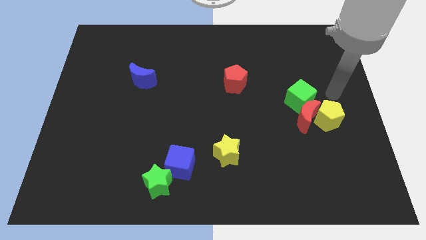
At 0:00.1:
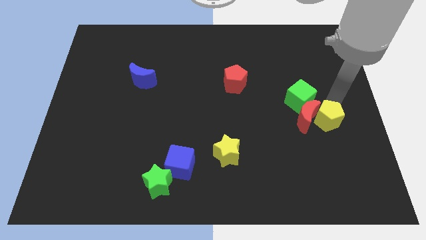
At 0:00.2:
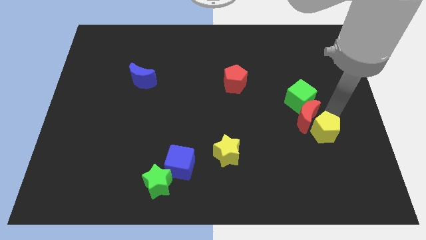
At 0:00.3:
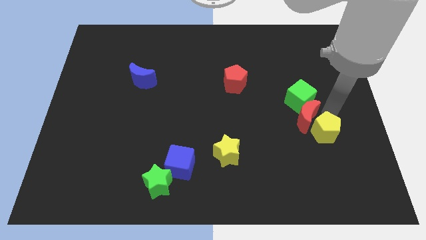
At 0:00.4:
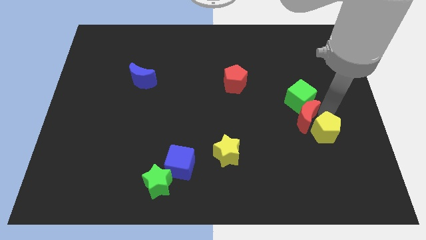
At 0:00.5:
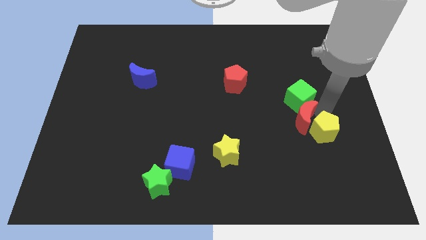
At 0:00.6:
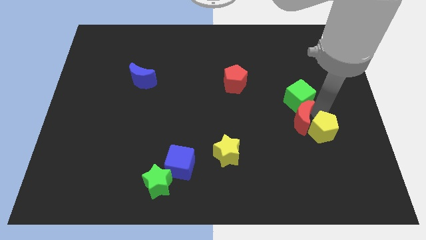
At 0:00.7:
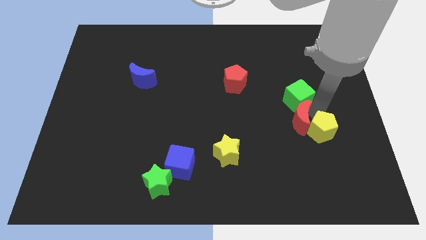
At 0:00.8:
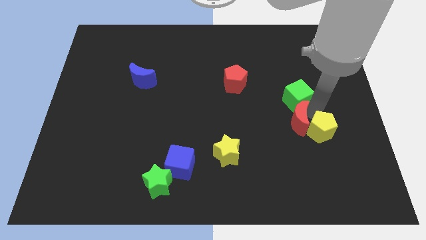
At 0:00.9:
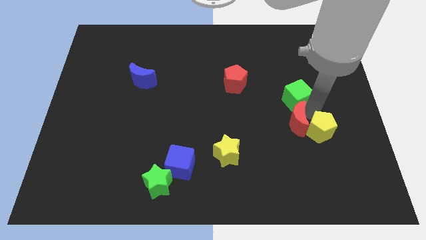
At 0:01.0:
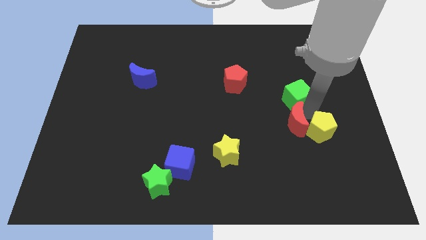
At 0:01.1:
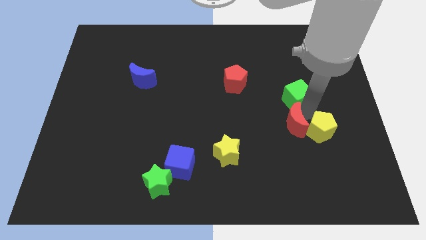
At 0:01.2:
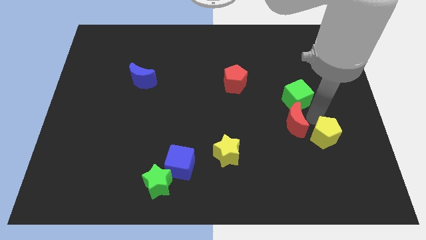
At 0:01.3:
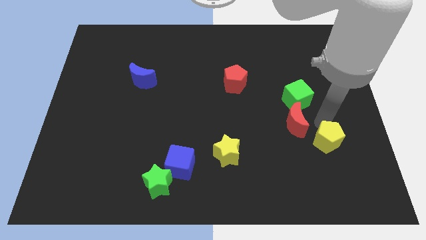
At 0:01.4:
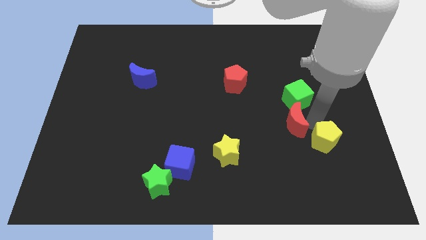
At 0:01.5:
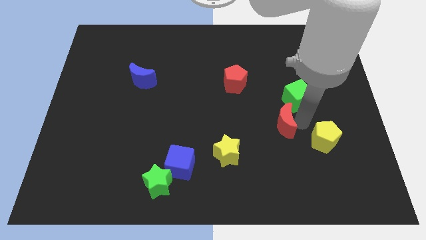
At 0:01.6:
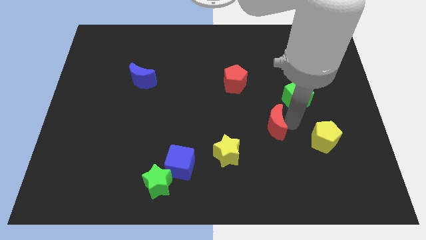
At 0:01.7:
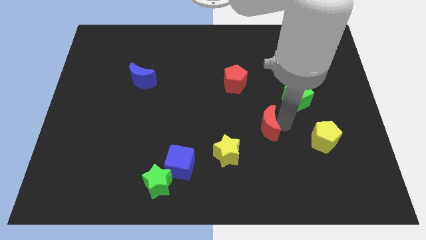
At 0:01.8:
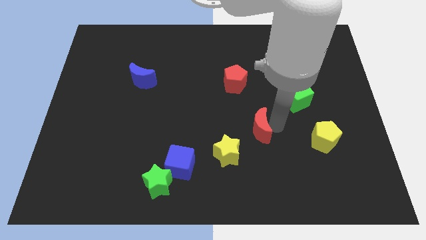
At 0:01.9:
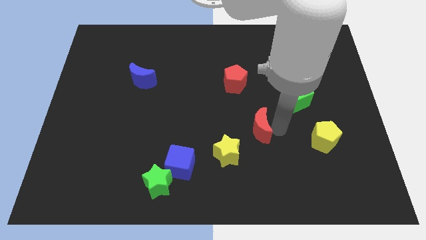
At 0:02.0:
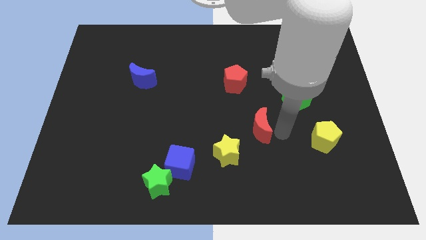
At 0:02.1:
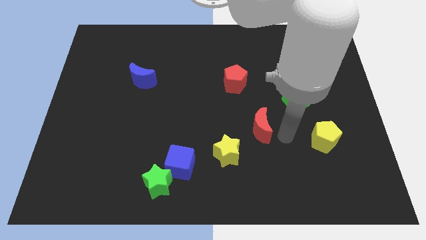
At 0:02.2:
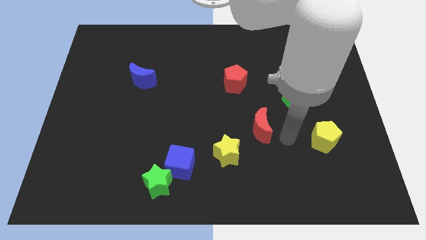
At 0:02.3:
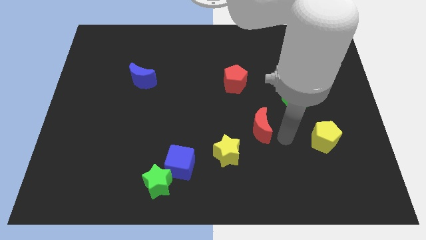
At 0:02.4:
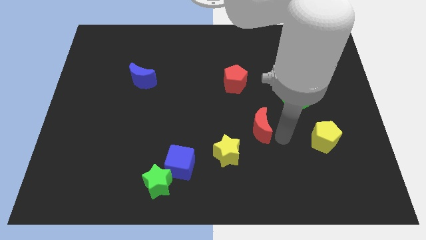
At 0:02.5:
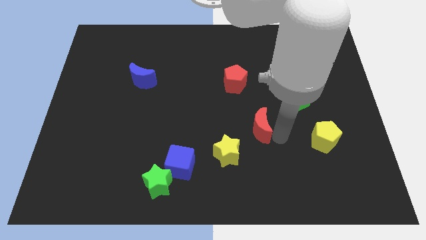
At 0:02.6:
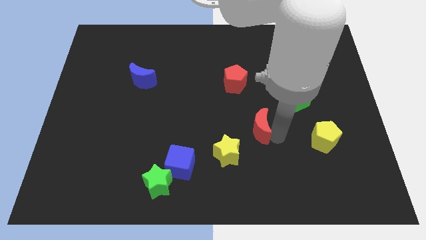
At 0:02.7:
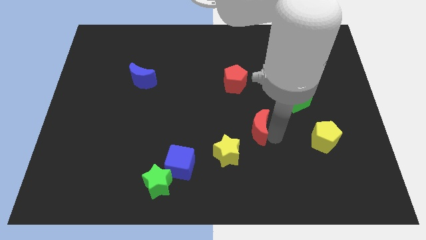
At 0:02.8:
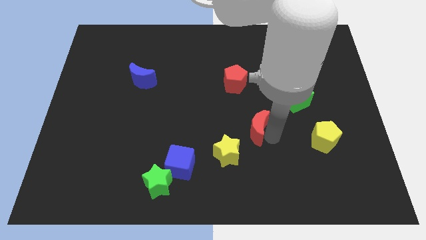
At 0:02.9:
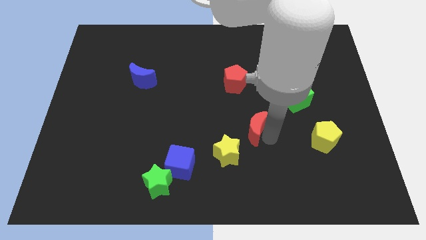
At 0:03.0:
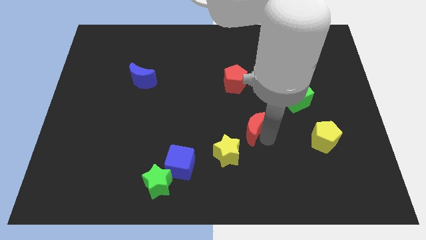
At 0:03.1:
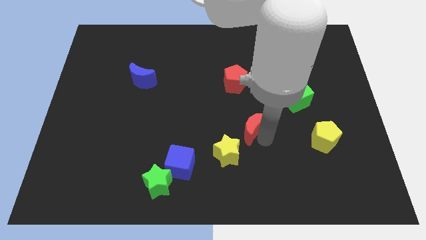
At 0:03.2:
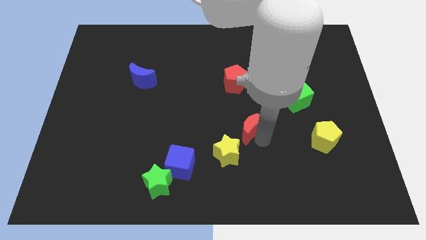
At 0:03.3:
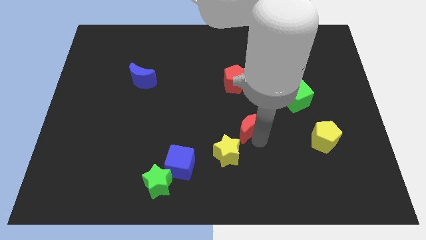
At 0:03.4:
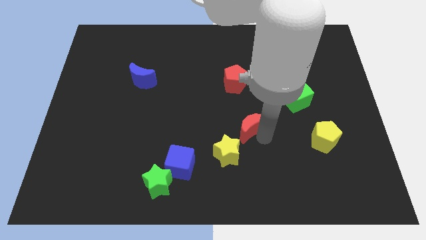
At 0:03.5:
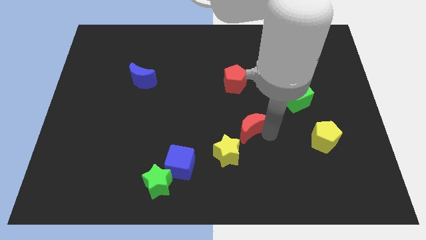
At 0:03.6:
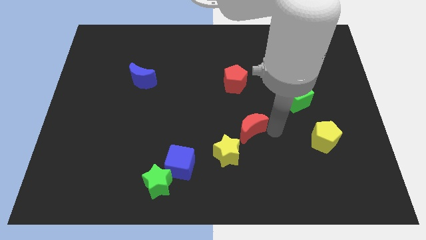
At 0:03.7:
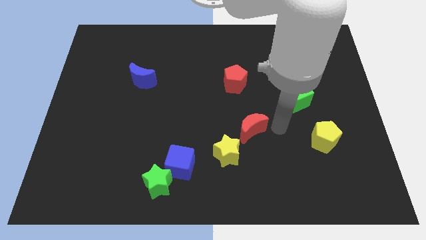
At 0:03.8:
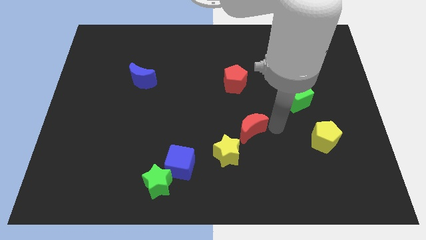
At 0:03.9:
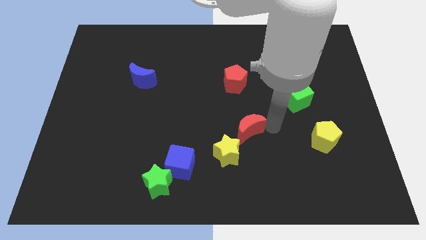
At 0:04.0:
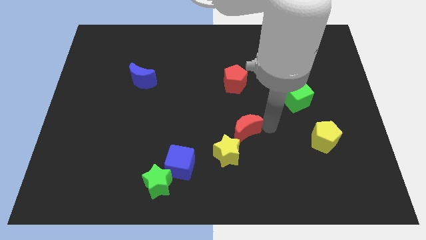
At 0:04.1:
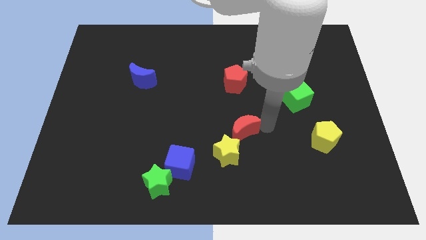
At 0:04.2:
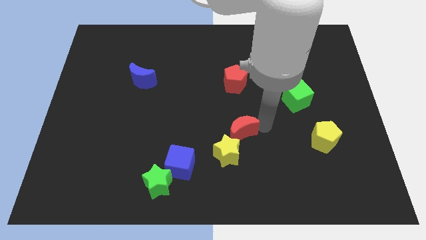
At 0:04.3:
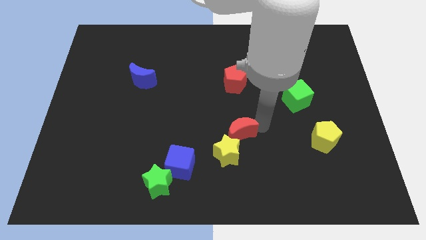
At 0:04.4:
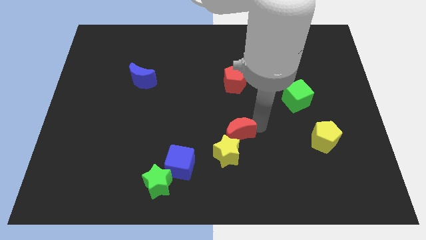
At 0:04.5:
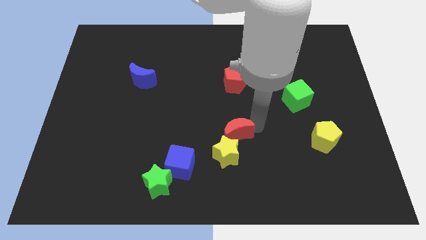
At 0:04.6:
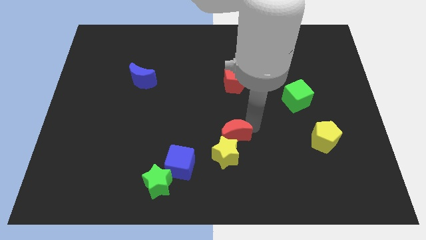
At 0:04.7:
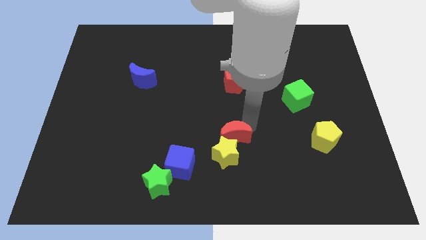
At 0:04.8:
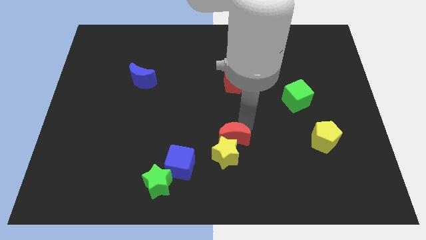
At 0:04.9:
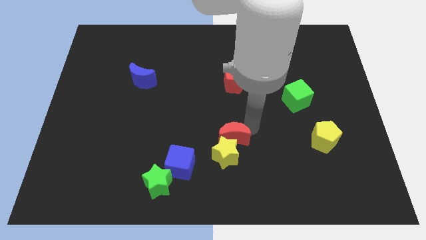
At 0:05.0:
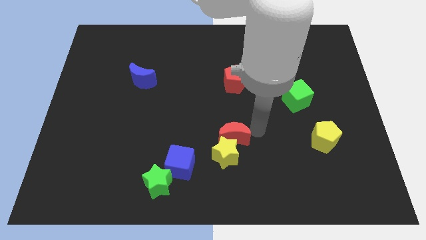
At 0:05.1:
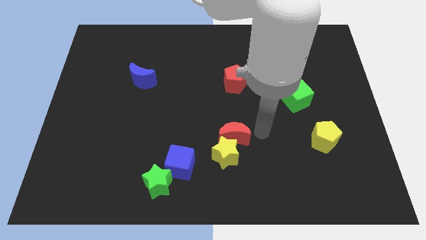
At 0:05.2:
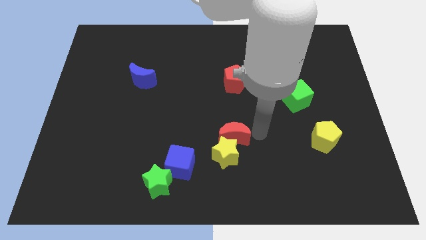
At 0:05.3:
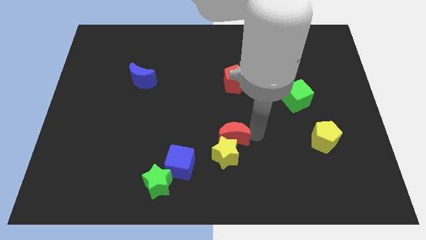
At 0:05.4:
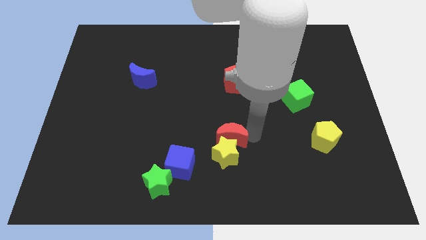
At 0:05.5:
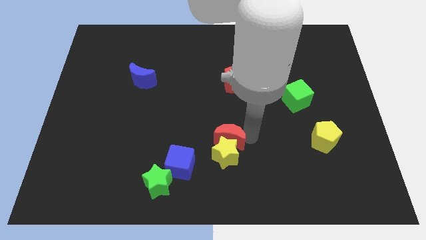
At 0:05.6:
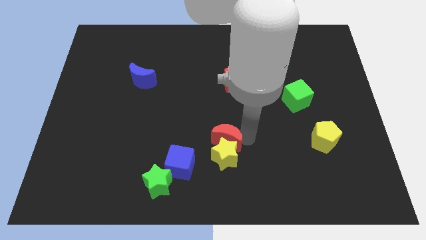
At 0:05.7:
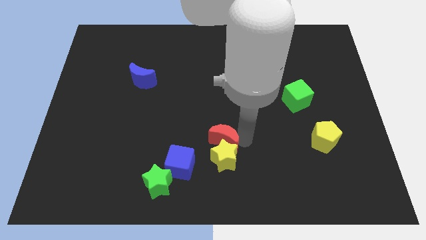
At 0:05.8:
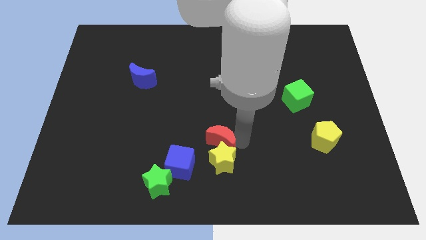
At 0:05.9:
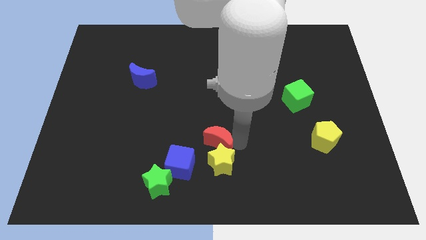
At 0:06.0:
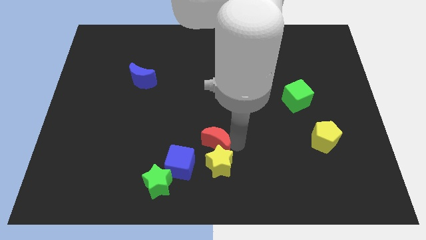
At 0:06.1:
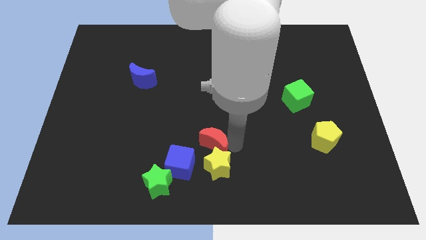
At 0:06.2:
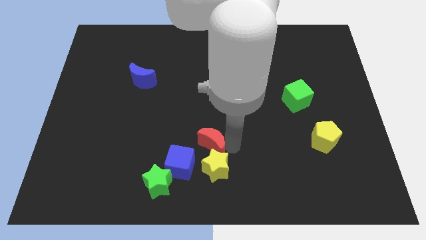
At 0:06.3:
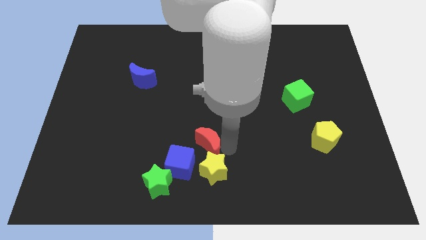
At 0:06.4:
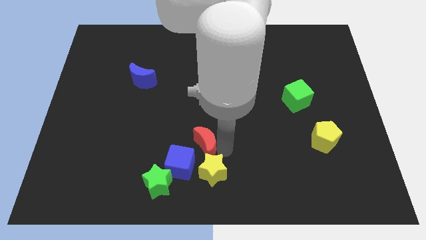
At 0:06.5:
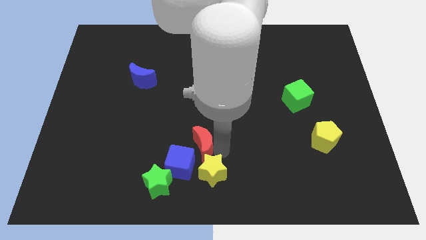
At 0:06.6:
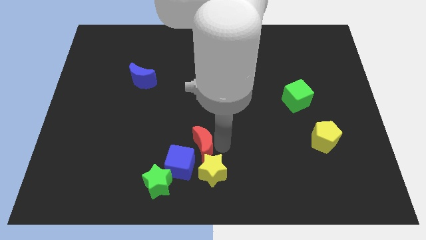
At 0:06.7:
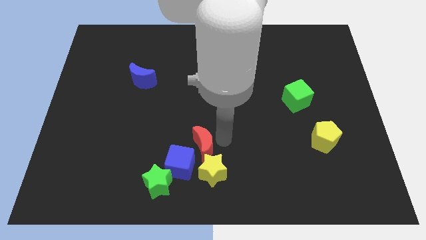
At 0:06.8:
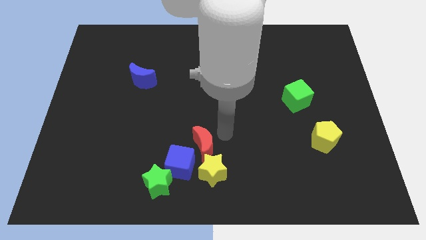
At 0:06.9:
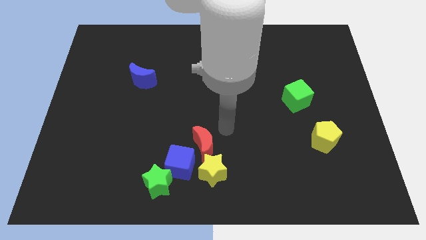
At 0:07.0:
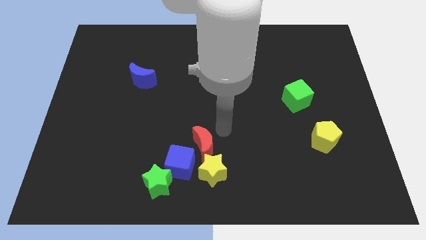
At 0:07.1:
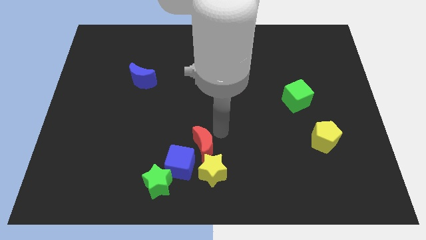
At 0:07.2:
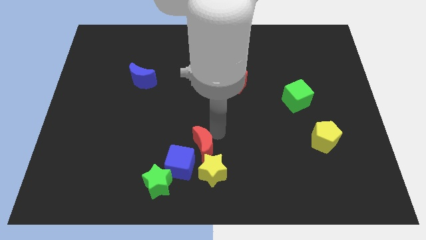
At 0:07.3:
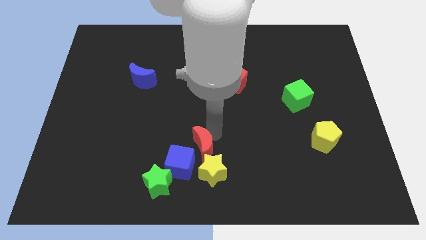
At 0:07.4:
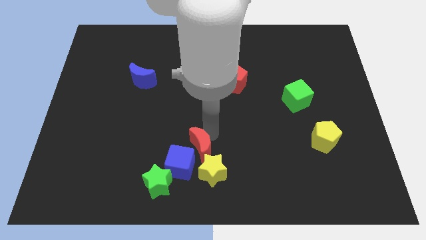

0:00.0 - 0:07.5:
put the red moon close to the blue cube
